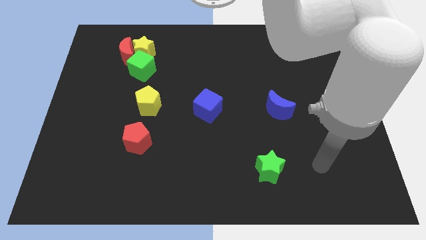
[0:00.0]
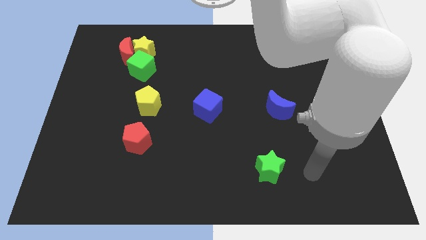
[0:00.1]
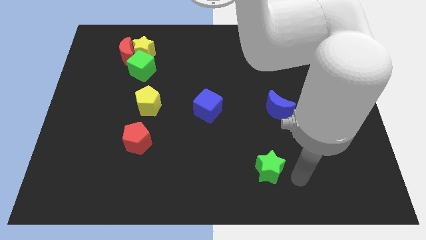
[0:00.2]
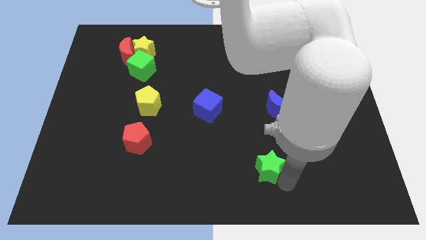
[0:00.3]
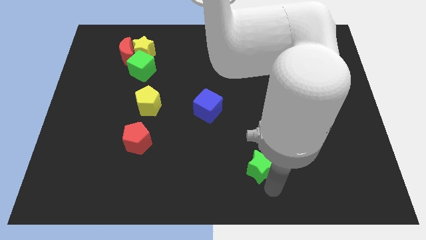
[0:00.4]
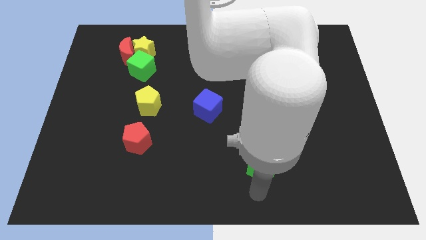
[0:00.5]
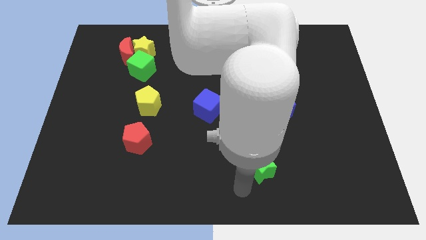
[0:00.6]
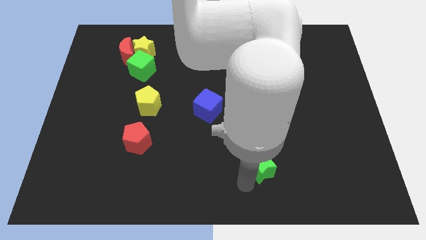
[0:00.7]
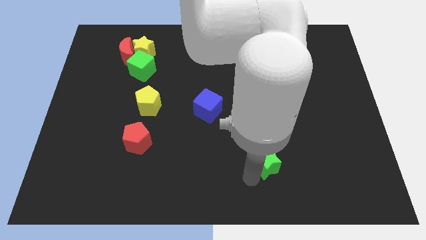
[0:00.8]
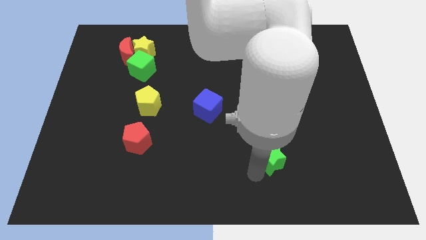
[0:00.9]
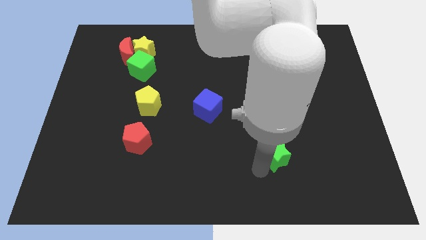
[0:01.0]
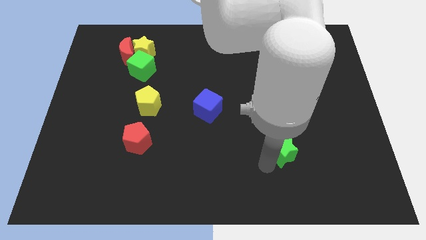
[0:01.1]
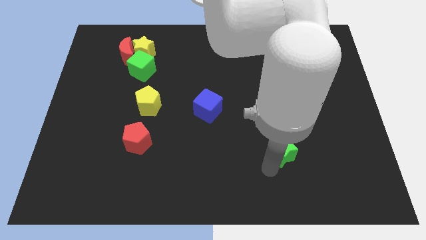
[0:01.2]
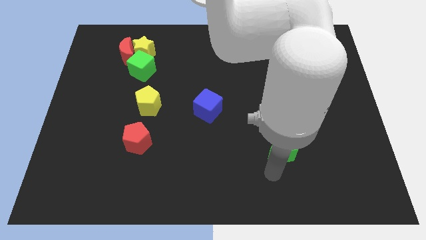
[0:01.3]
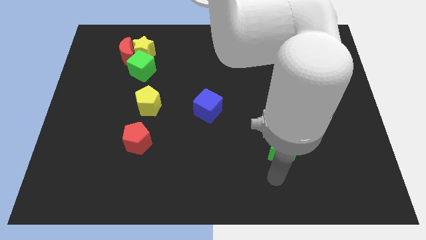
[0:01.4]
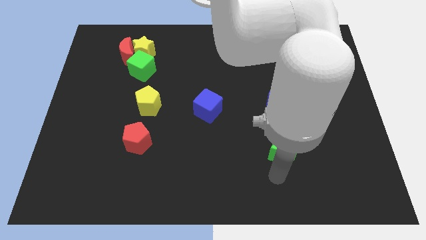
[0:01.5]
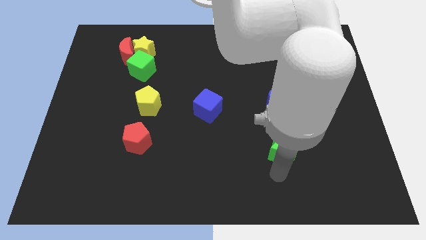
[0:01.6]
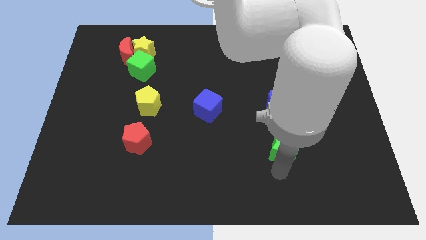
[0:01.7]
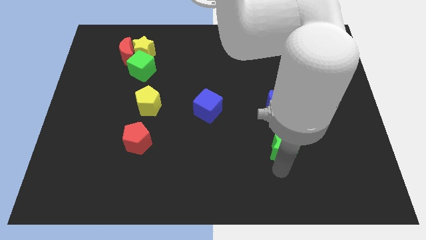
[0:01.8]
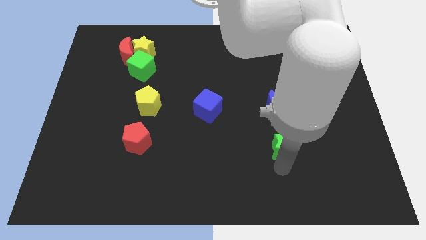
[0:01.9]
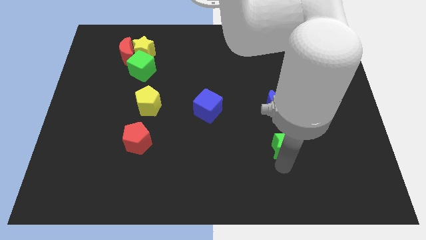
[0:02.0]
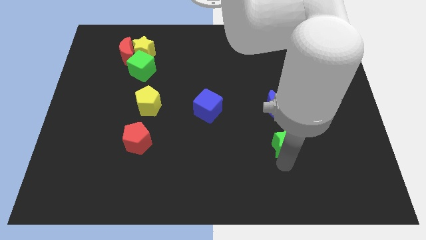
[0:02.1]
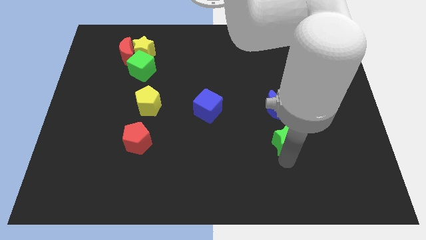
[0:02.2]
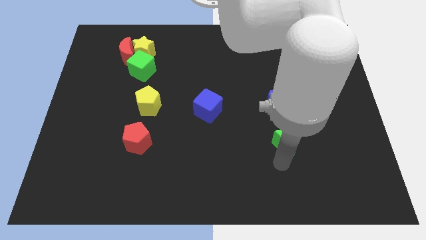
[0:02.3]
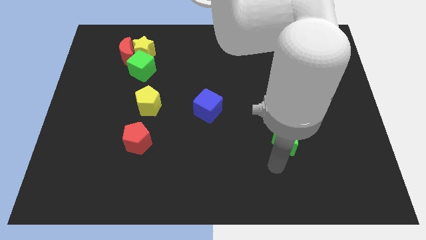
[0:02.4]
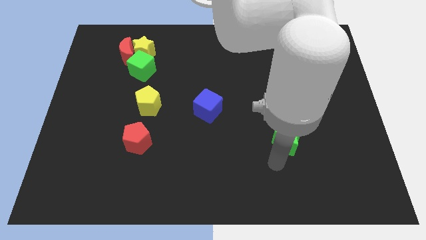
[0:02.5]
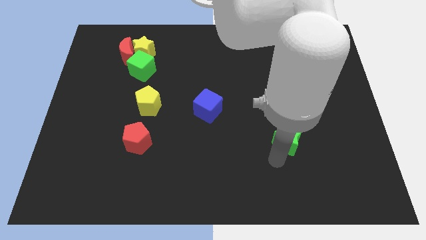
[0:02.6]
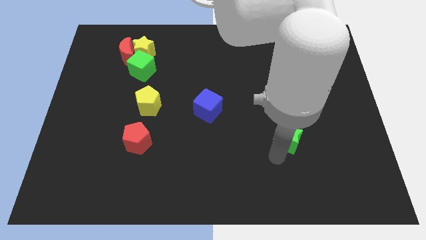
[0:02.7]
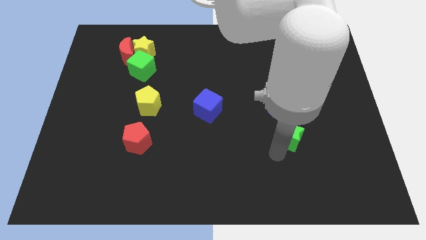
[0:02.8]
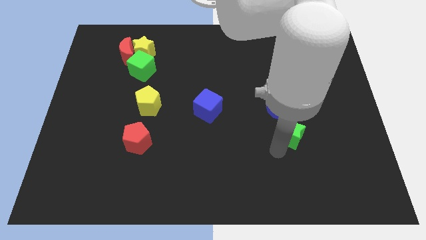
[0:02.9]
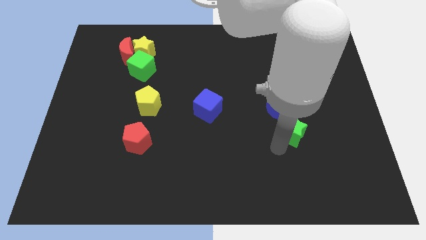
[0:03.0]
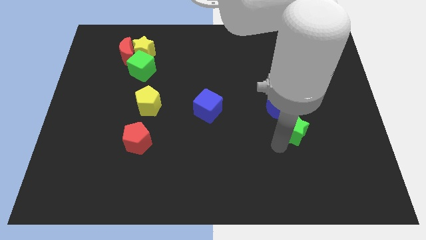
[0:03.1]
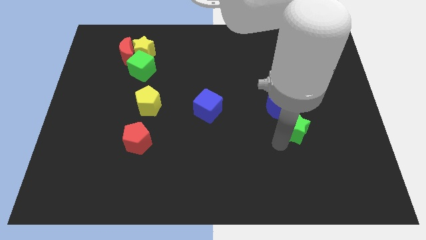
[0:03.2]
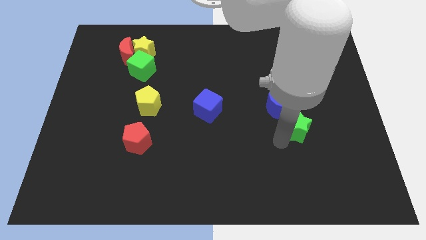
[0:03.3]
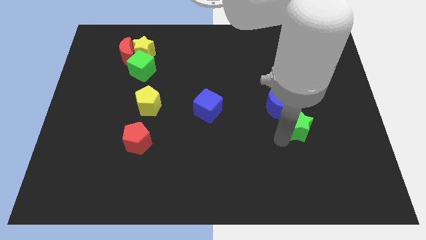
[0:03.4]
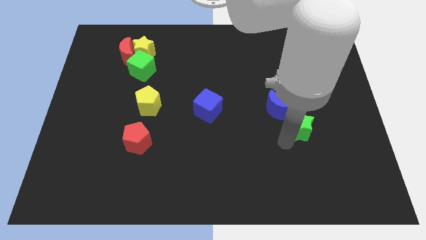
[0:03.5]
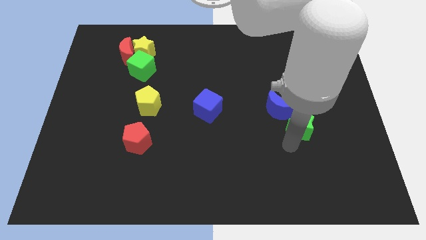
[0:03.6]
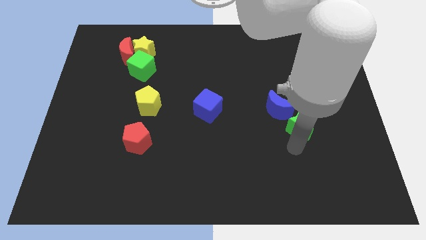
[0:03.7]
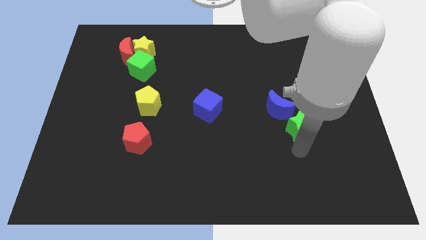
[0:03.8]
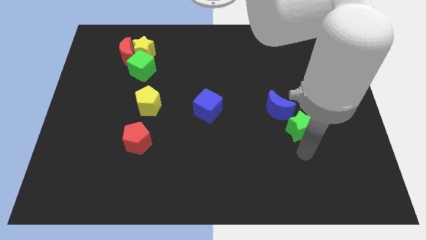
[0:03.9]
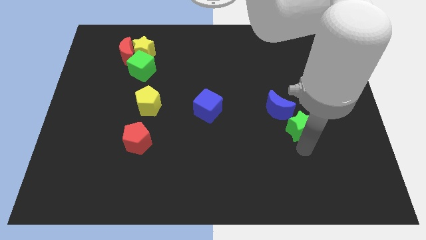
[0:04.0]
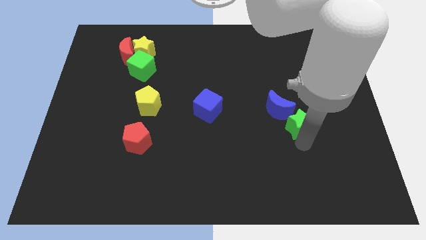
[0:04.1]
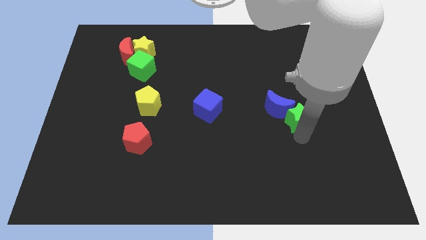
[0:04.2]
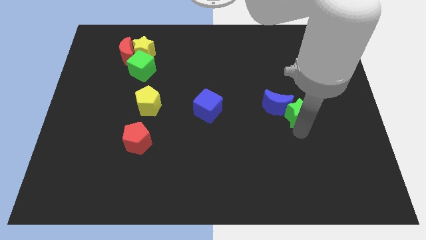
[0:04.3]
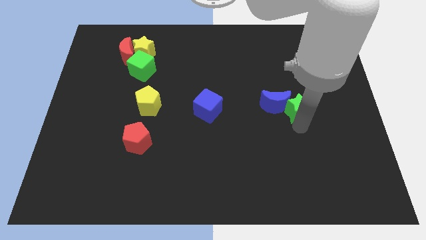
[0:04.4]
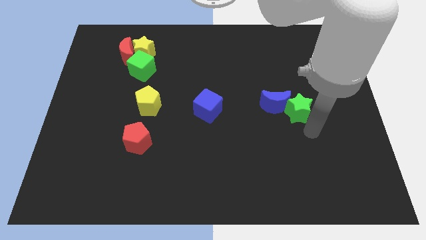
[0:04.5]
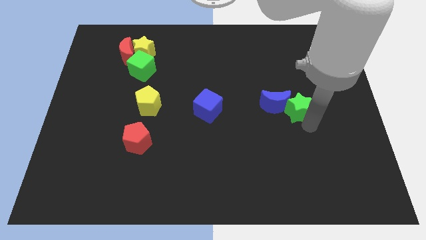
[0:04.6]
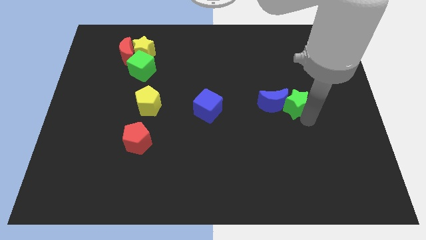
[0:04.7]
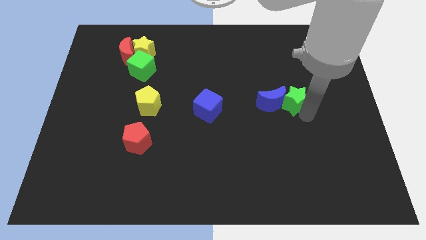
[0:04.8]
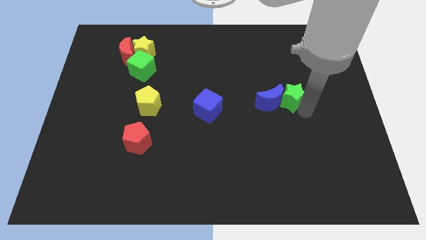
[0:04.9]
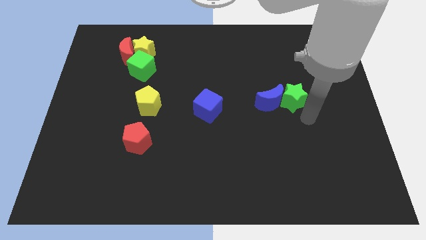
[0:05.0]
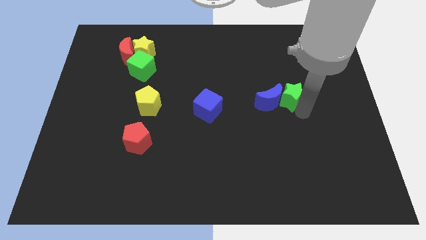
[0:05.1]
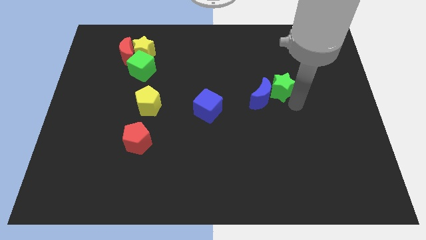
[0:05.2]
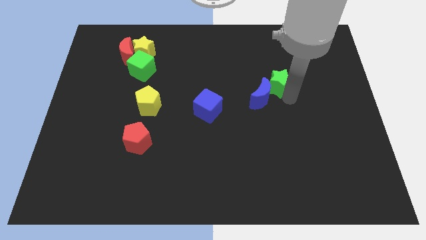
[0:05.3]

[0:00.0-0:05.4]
slide the green star to the top of the blue moon

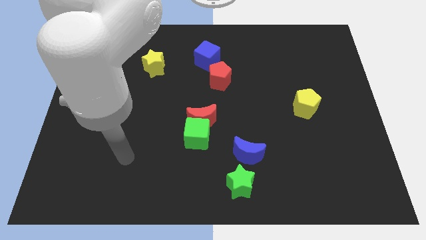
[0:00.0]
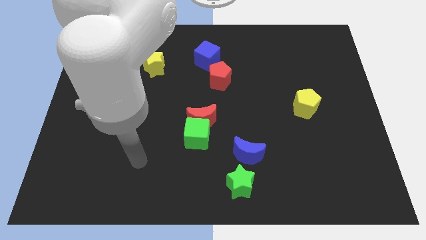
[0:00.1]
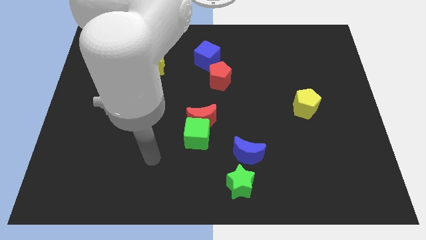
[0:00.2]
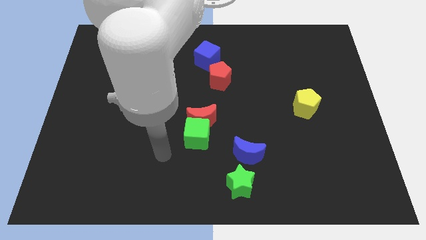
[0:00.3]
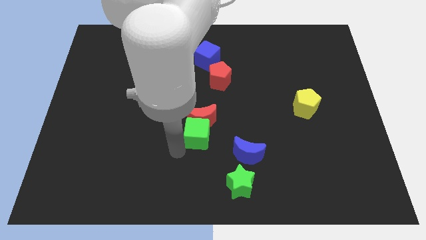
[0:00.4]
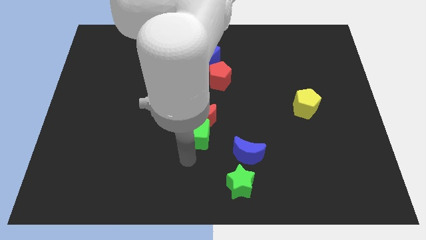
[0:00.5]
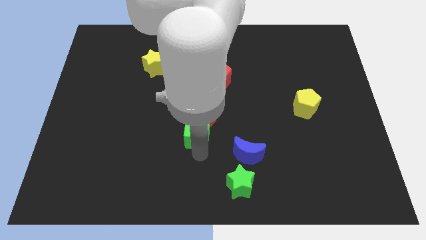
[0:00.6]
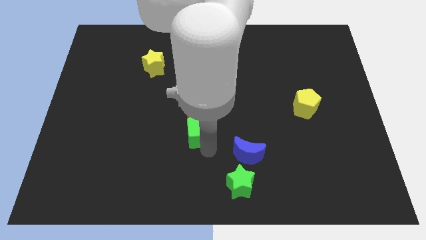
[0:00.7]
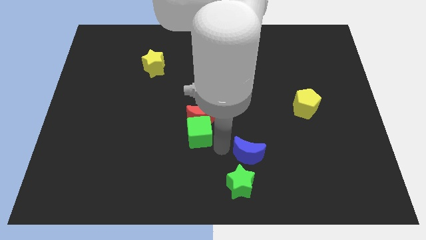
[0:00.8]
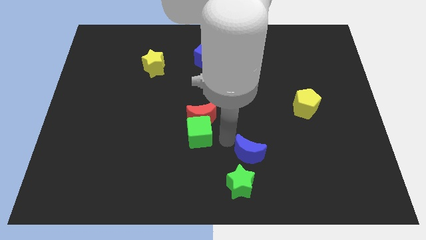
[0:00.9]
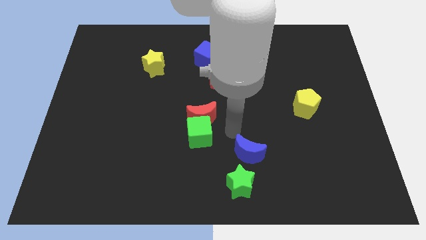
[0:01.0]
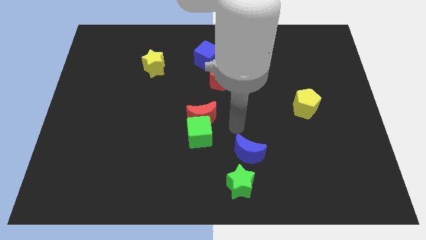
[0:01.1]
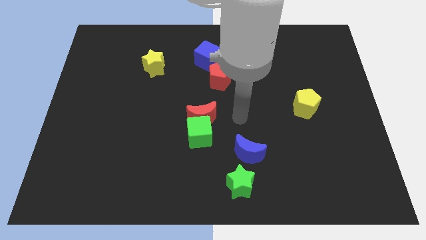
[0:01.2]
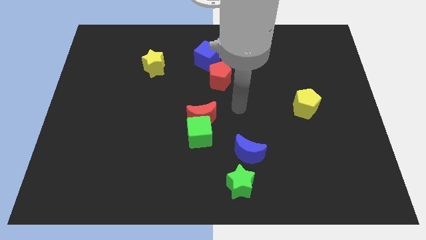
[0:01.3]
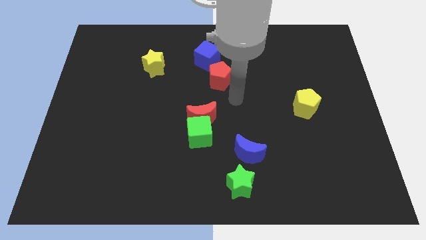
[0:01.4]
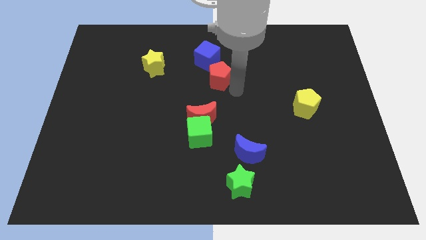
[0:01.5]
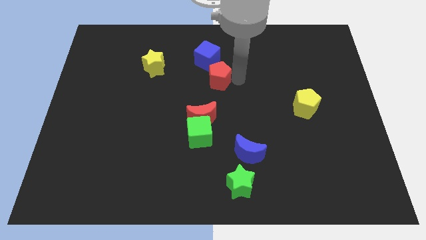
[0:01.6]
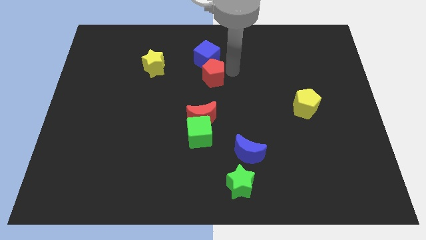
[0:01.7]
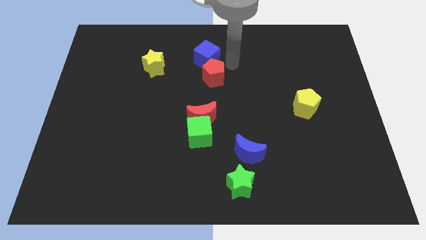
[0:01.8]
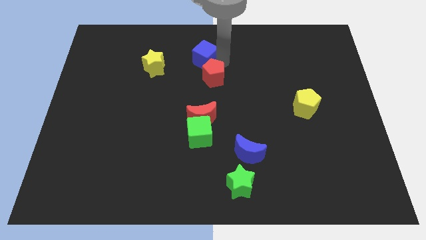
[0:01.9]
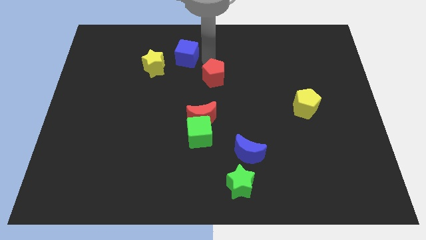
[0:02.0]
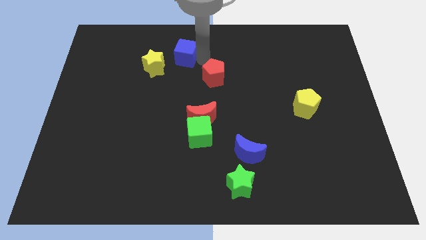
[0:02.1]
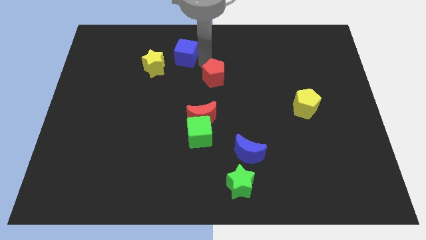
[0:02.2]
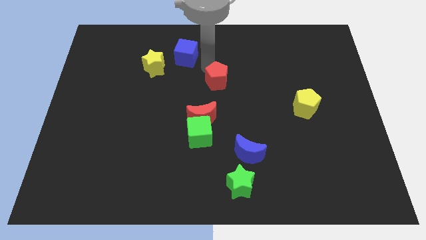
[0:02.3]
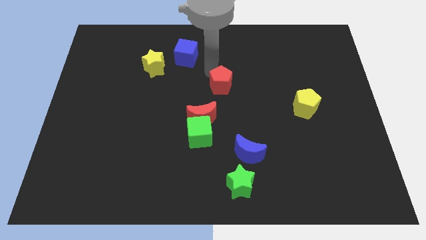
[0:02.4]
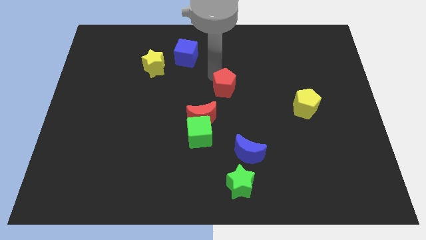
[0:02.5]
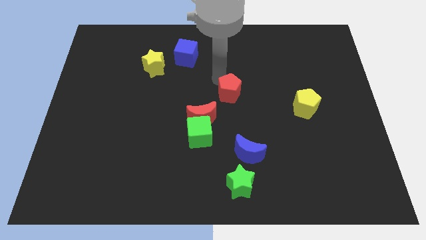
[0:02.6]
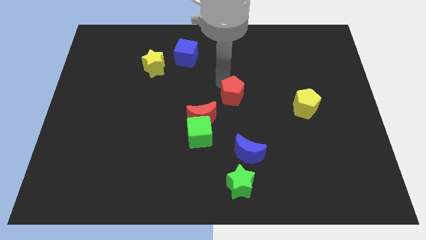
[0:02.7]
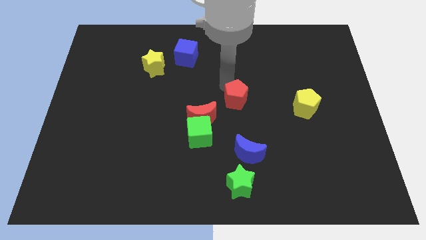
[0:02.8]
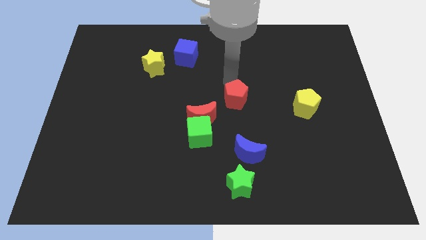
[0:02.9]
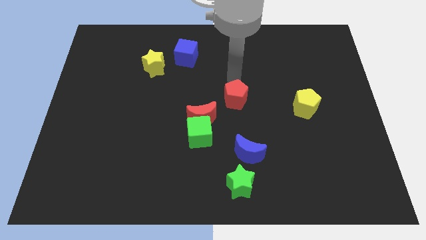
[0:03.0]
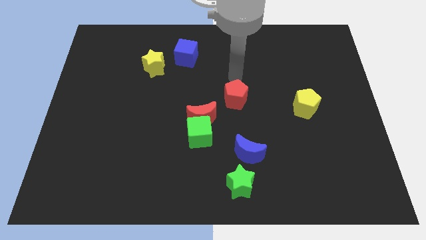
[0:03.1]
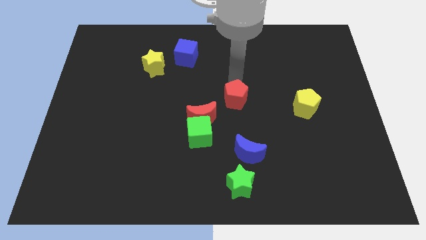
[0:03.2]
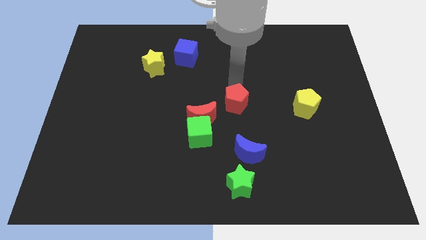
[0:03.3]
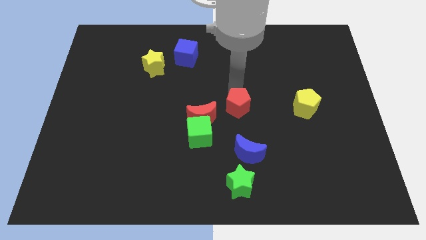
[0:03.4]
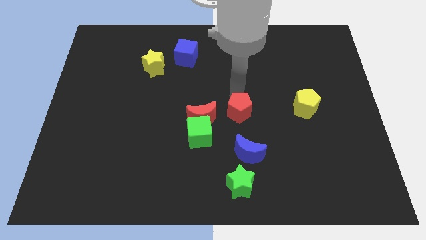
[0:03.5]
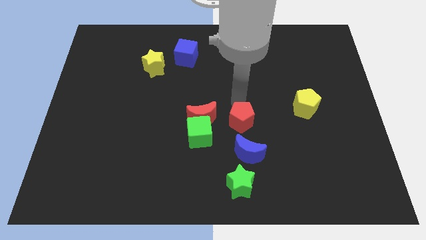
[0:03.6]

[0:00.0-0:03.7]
push the red pentagon to the top side of the green star
